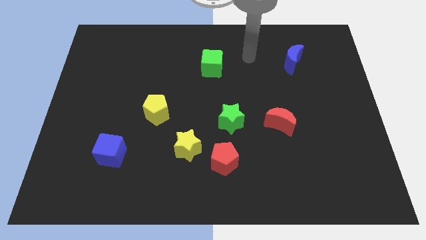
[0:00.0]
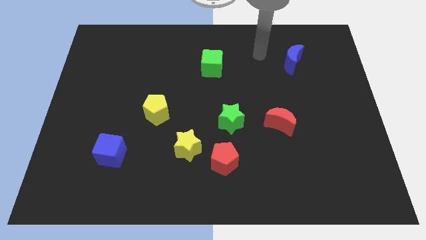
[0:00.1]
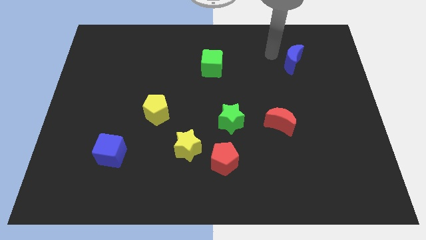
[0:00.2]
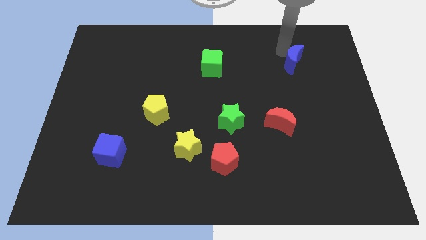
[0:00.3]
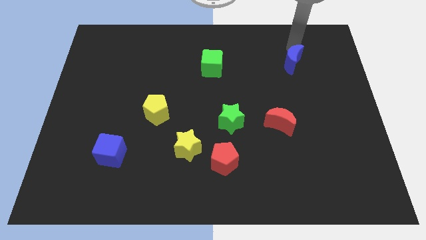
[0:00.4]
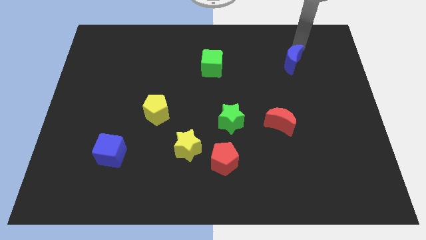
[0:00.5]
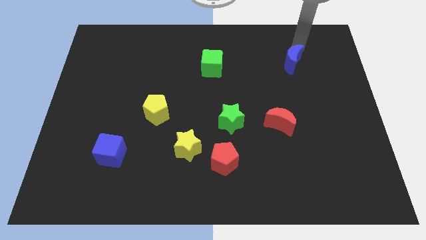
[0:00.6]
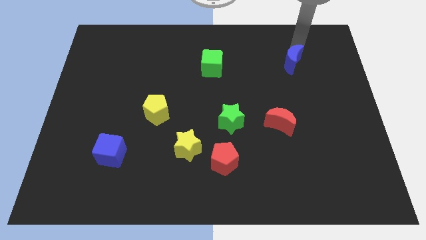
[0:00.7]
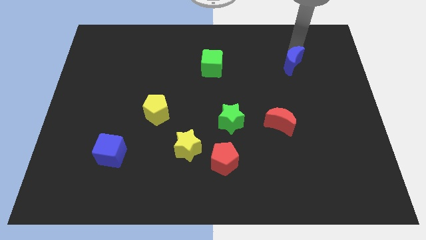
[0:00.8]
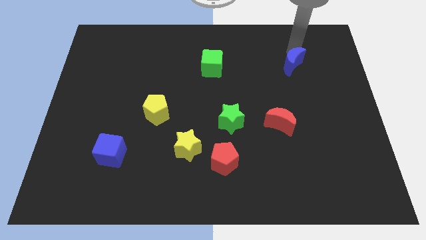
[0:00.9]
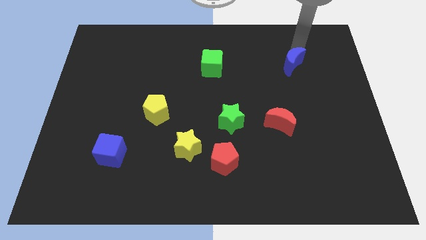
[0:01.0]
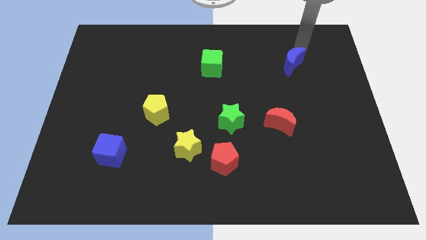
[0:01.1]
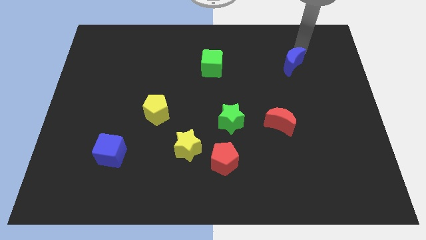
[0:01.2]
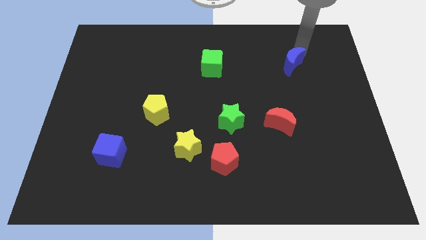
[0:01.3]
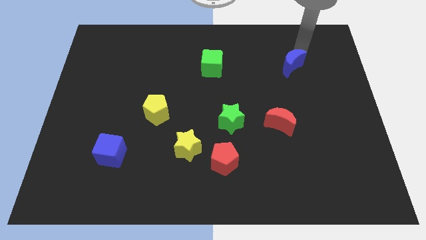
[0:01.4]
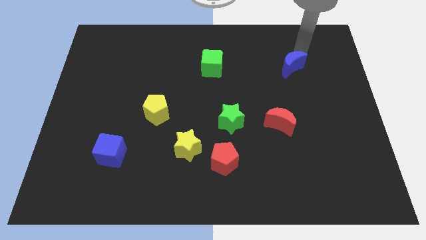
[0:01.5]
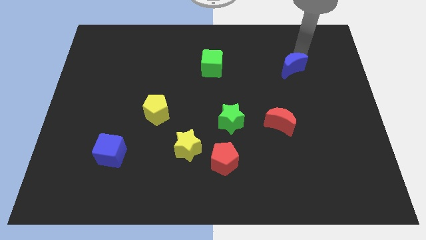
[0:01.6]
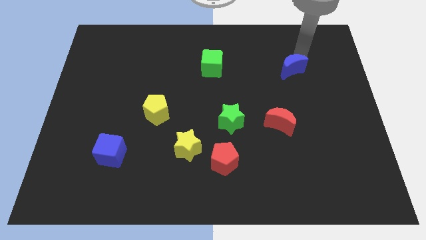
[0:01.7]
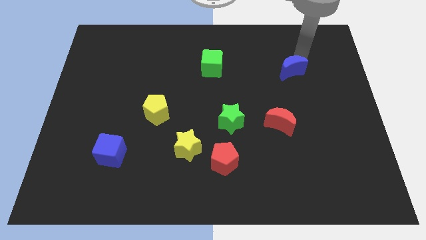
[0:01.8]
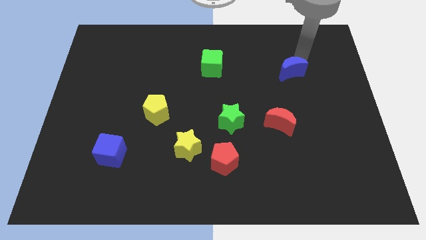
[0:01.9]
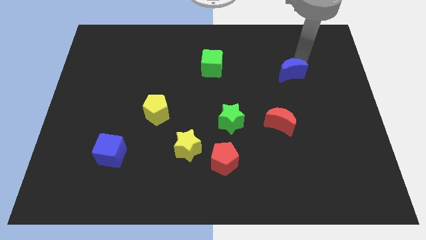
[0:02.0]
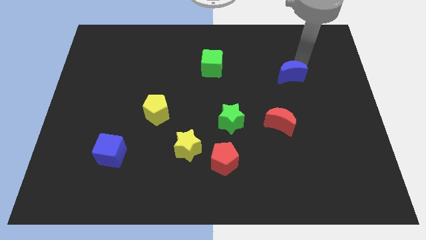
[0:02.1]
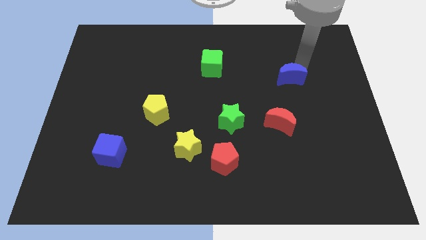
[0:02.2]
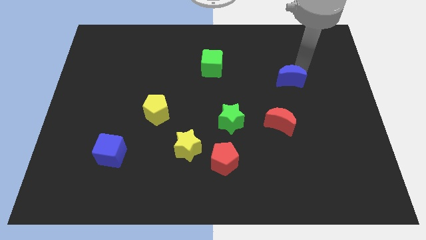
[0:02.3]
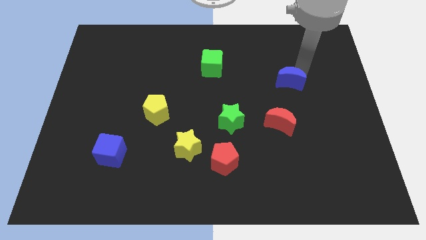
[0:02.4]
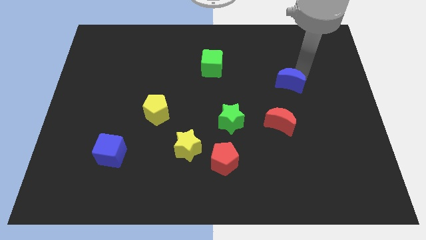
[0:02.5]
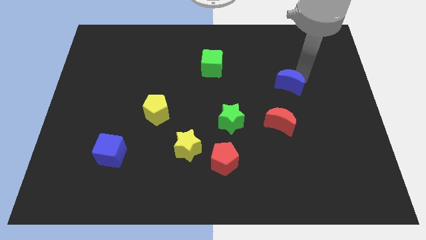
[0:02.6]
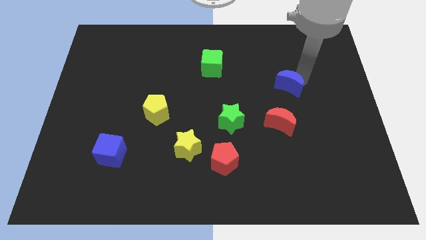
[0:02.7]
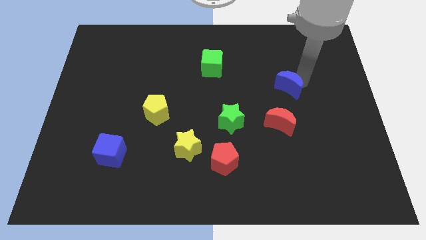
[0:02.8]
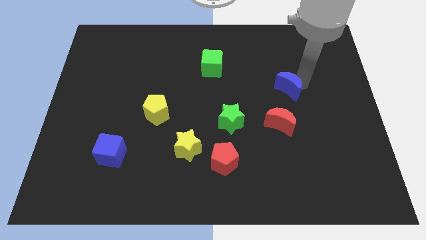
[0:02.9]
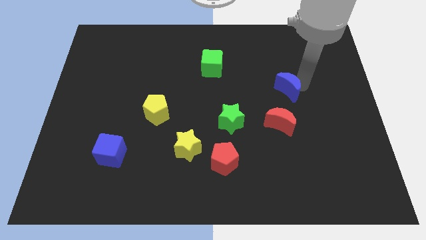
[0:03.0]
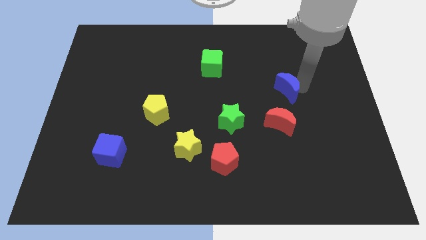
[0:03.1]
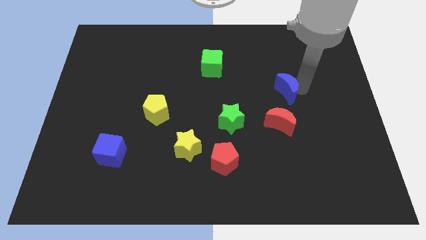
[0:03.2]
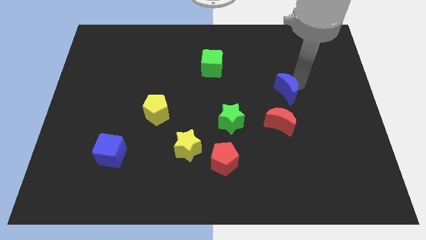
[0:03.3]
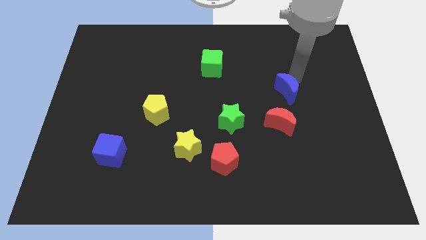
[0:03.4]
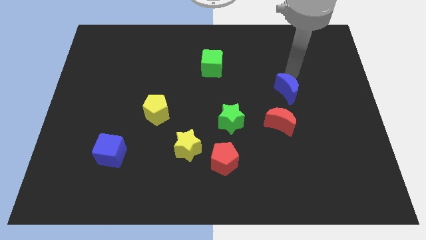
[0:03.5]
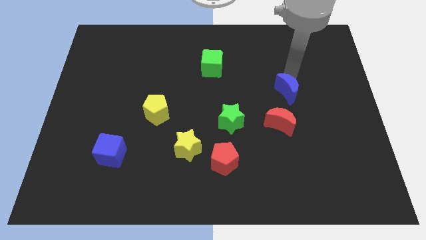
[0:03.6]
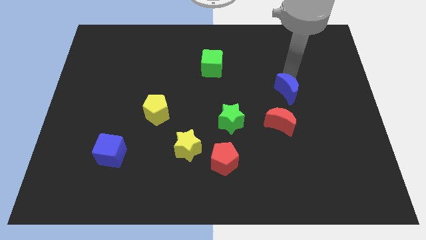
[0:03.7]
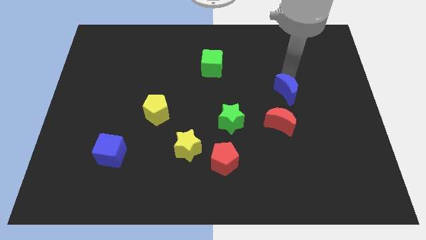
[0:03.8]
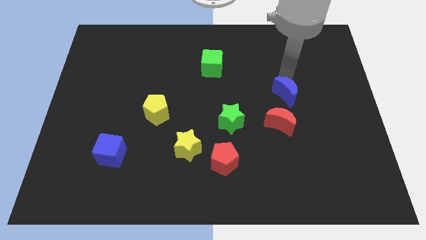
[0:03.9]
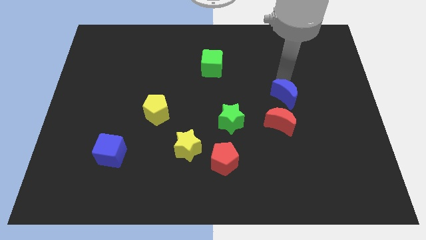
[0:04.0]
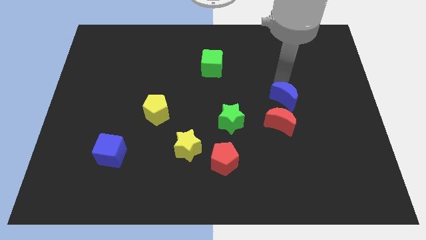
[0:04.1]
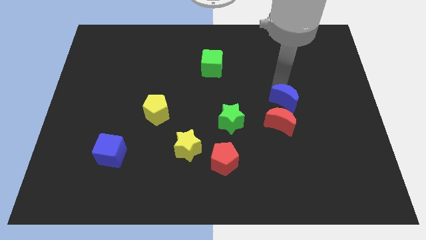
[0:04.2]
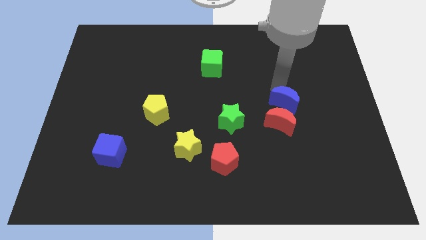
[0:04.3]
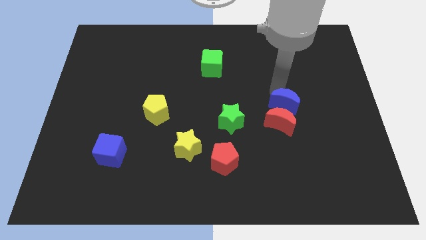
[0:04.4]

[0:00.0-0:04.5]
push the blue moon towards the red moon

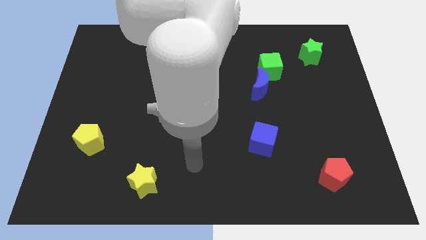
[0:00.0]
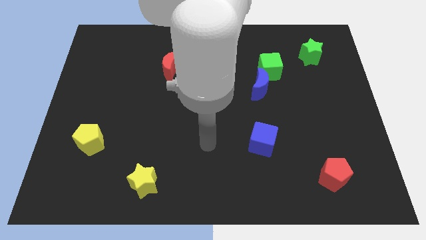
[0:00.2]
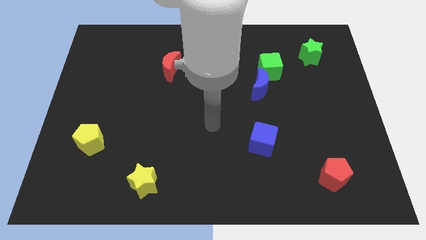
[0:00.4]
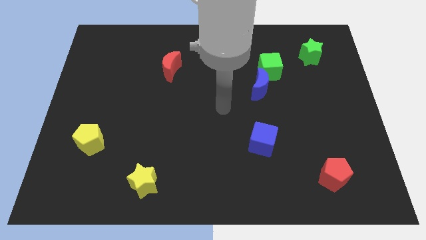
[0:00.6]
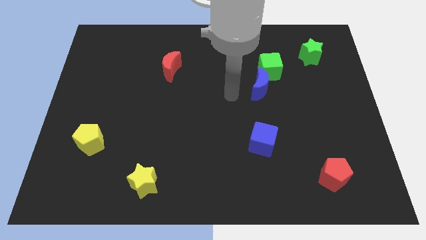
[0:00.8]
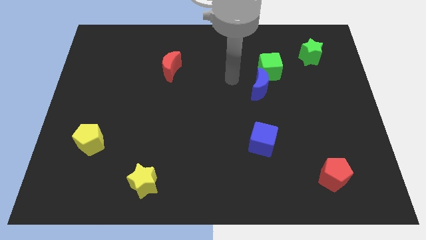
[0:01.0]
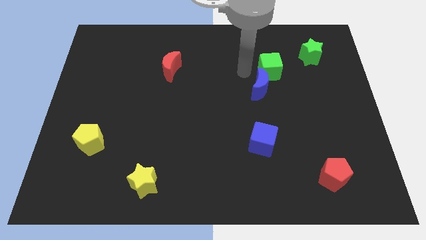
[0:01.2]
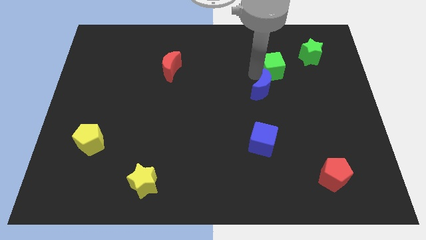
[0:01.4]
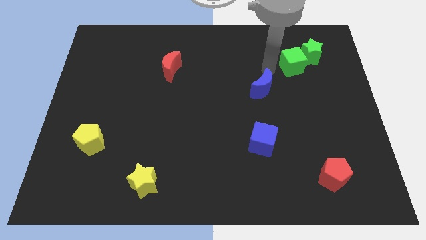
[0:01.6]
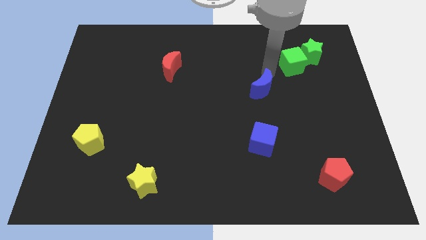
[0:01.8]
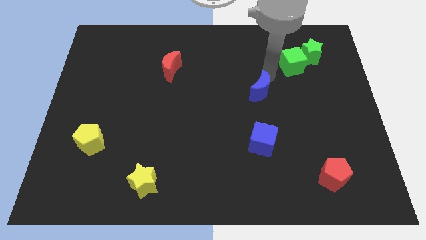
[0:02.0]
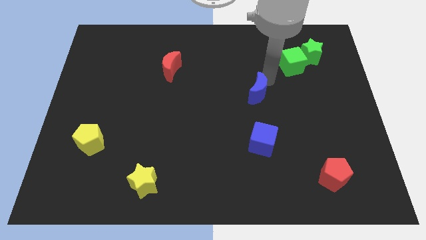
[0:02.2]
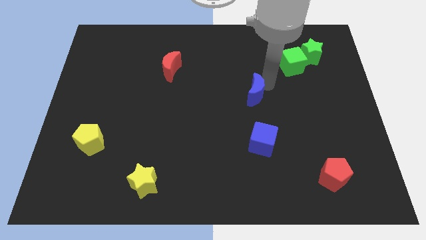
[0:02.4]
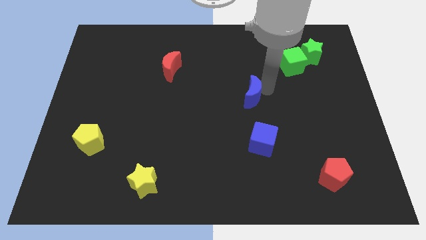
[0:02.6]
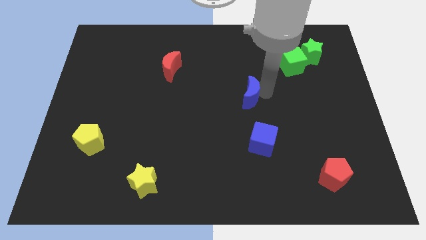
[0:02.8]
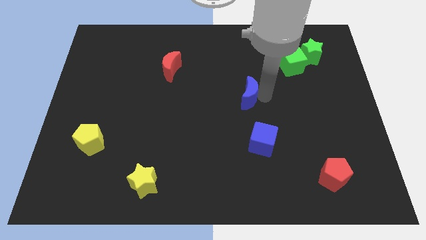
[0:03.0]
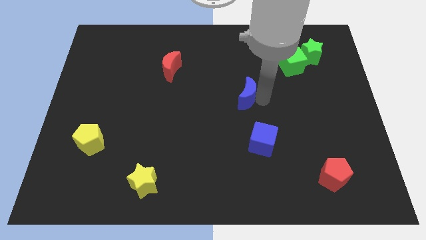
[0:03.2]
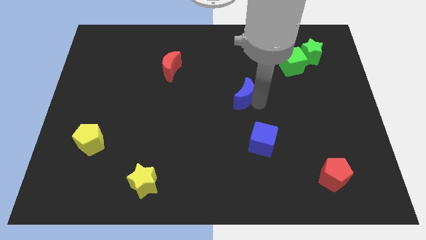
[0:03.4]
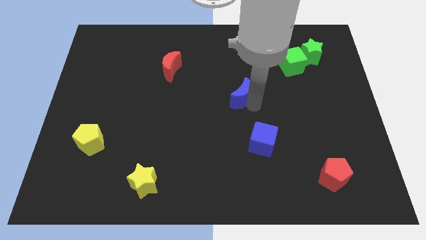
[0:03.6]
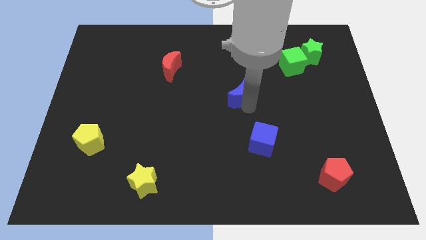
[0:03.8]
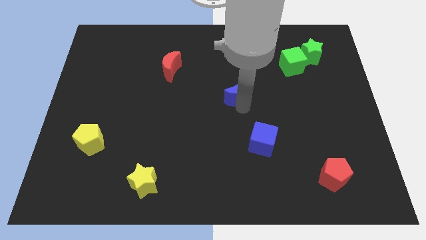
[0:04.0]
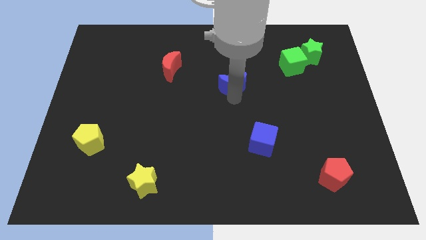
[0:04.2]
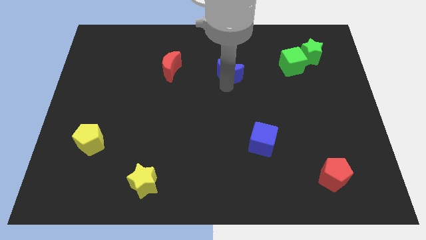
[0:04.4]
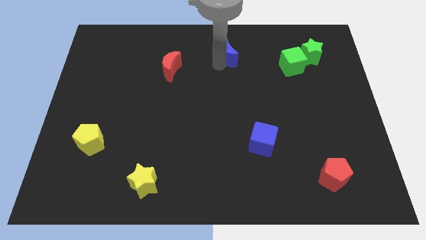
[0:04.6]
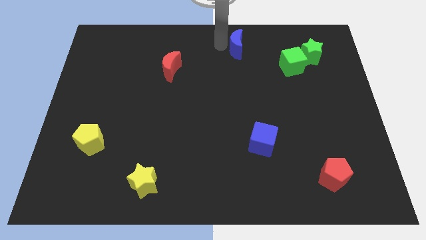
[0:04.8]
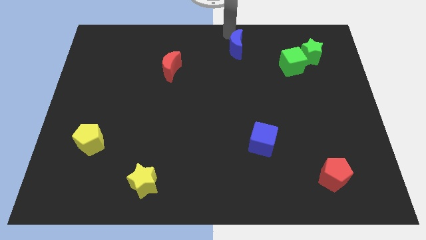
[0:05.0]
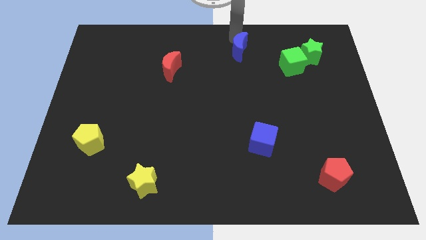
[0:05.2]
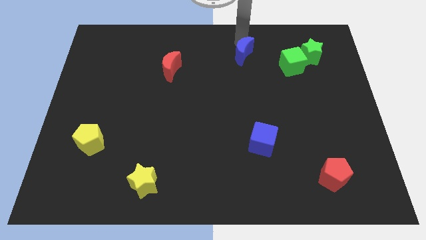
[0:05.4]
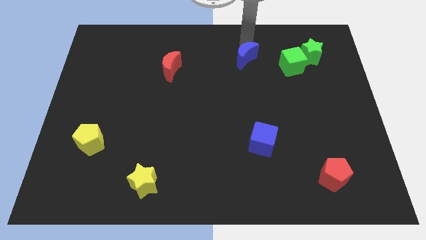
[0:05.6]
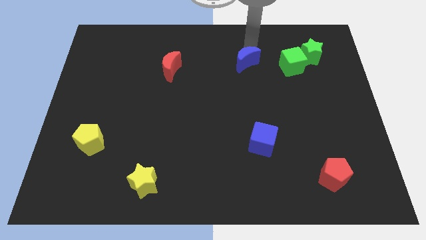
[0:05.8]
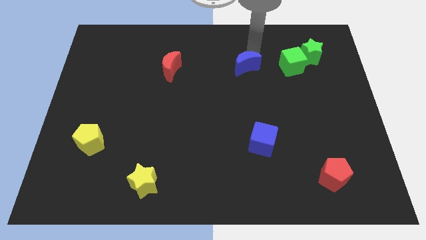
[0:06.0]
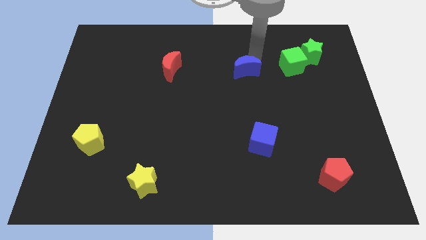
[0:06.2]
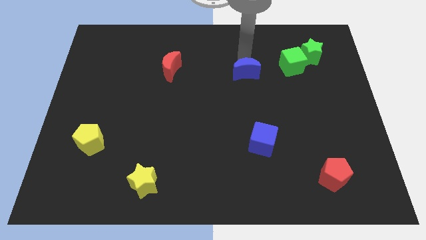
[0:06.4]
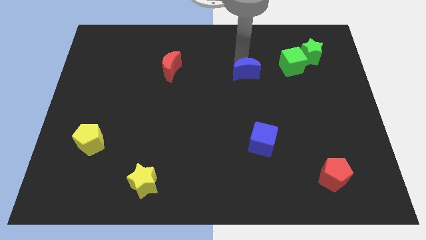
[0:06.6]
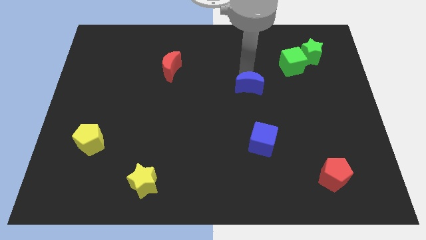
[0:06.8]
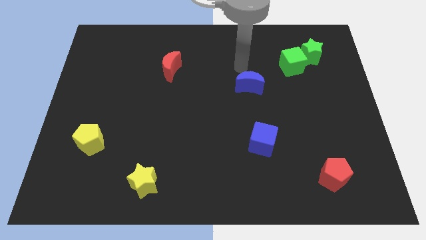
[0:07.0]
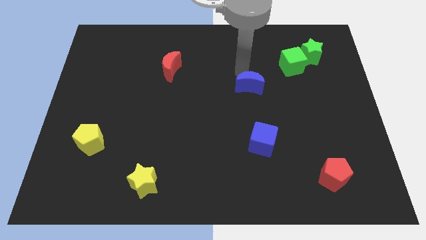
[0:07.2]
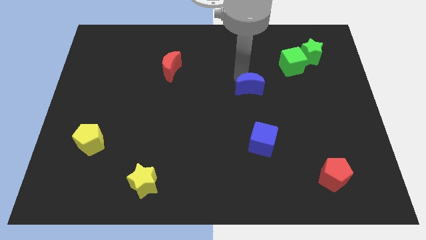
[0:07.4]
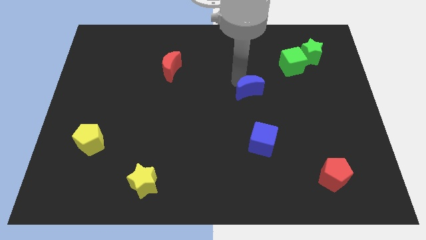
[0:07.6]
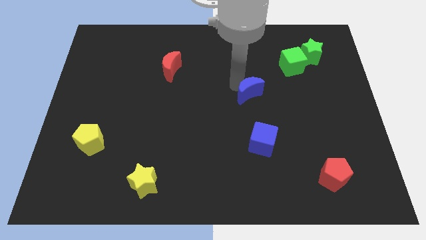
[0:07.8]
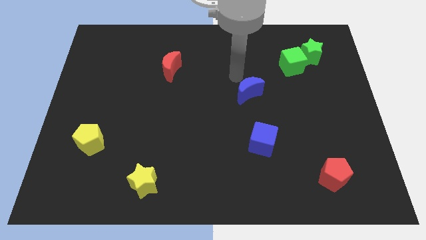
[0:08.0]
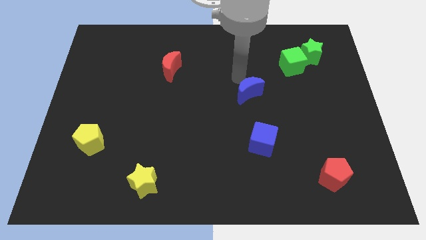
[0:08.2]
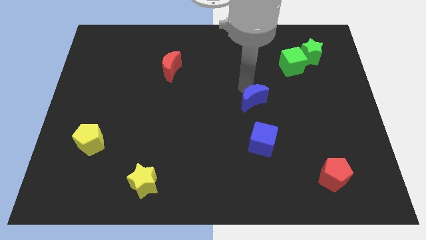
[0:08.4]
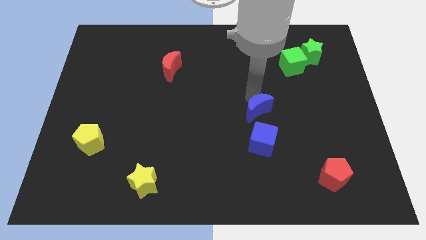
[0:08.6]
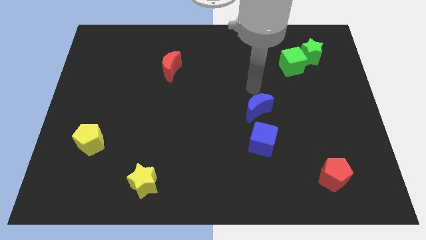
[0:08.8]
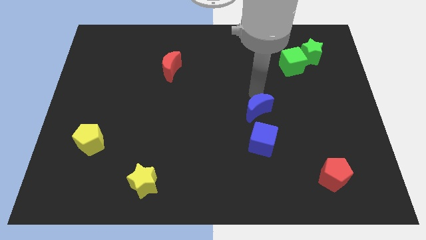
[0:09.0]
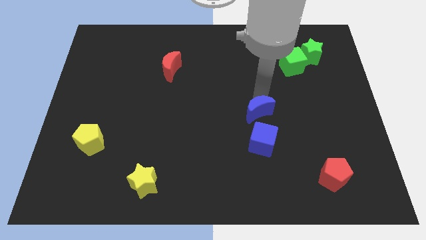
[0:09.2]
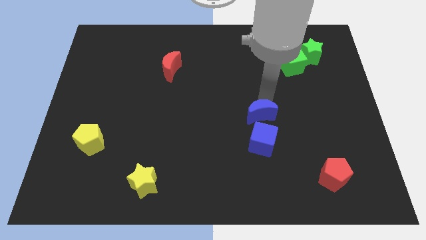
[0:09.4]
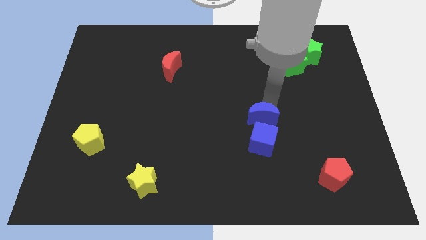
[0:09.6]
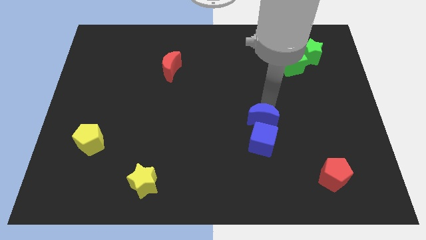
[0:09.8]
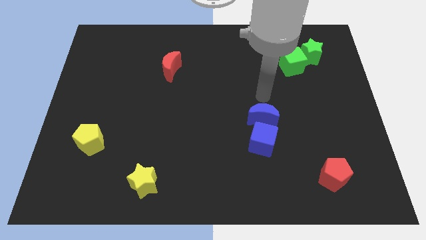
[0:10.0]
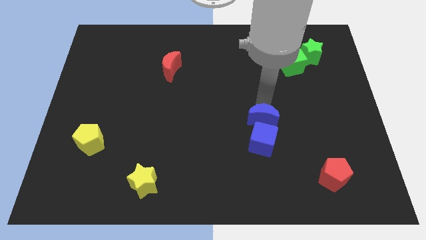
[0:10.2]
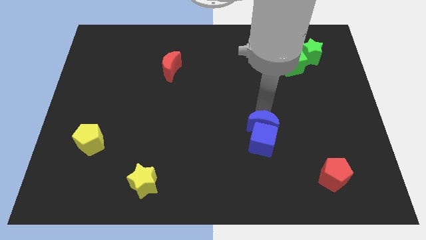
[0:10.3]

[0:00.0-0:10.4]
slide the blue moon next to the blue cube
